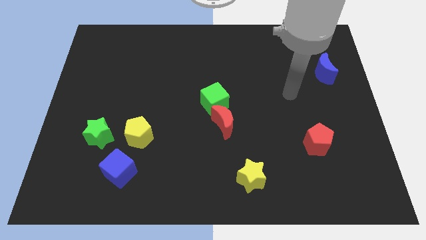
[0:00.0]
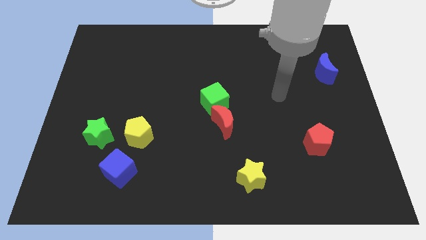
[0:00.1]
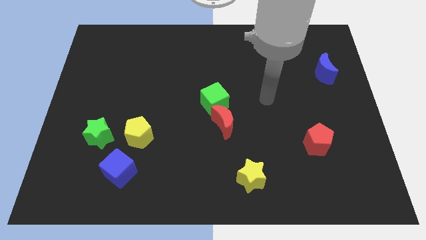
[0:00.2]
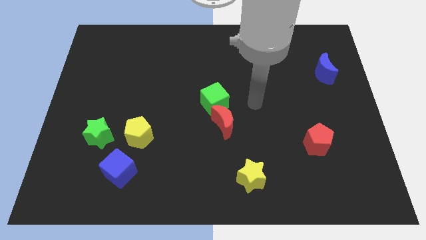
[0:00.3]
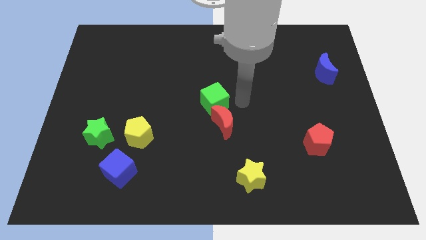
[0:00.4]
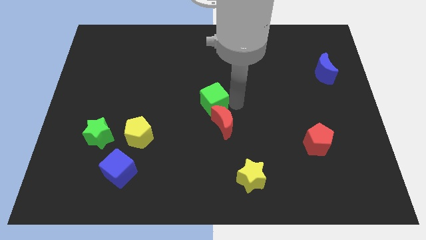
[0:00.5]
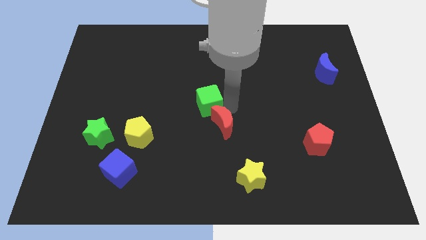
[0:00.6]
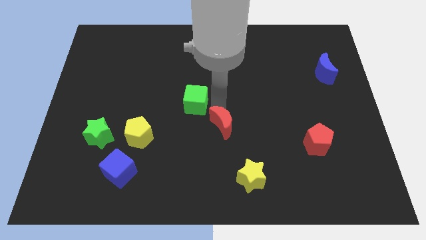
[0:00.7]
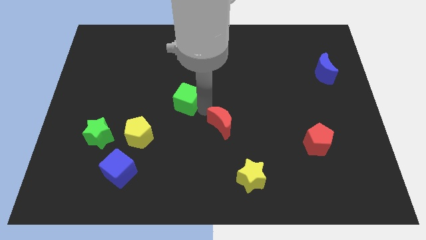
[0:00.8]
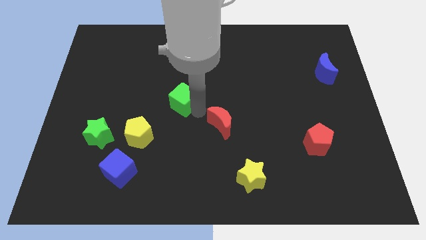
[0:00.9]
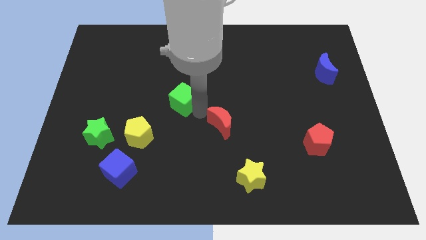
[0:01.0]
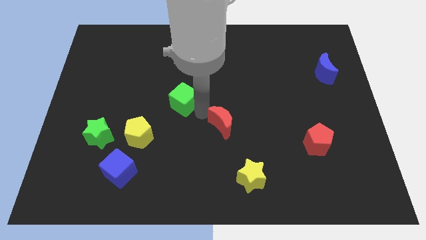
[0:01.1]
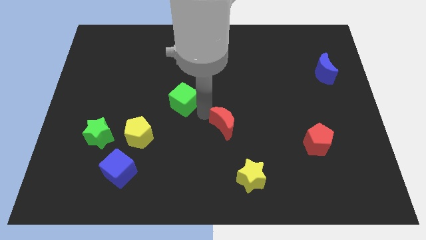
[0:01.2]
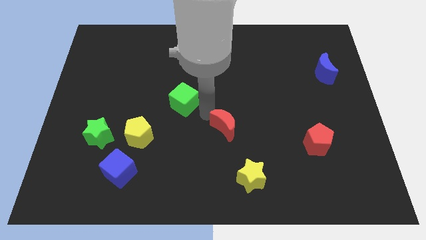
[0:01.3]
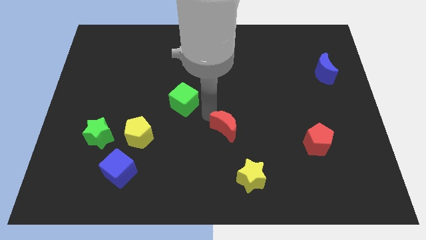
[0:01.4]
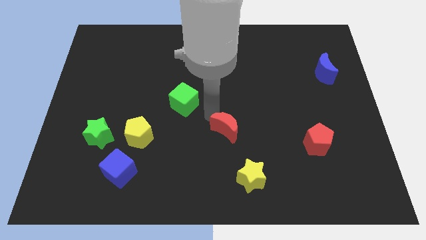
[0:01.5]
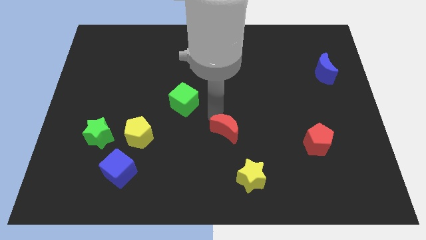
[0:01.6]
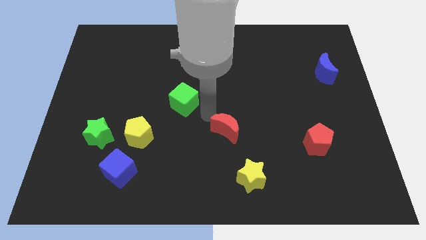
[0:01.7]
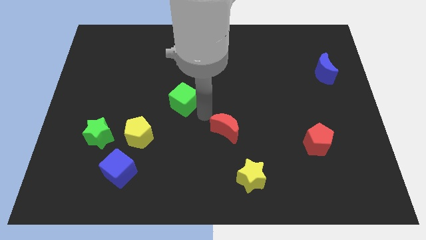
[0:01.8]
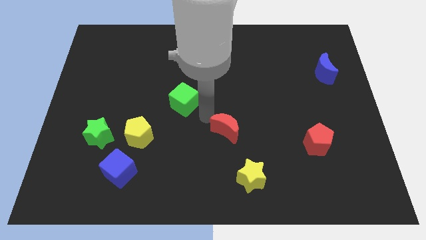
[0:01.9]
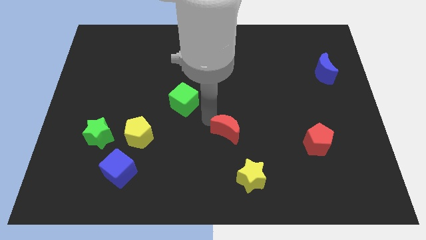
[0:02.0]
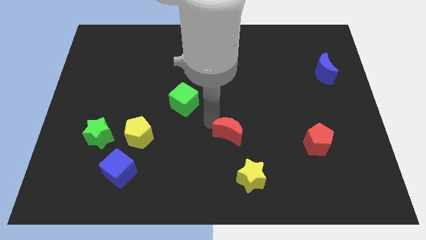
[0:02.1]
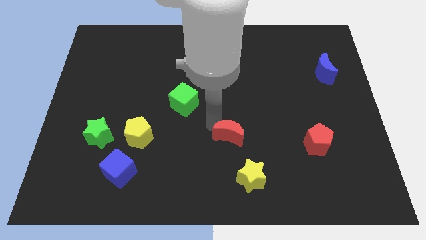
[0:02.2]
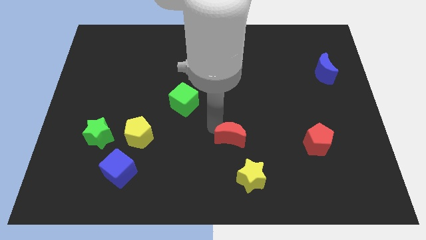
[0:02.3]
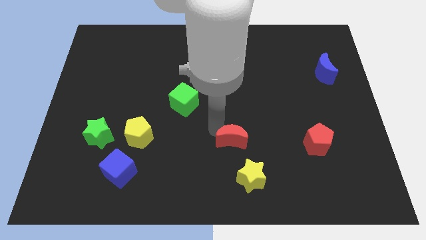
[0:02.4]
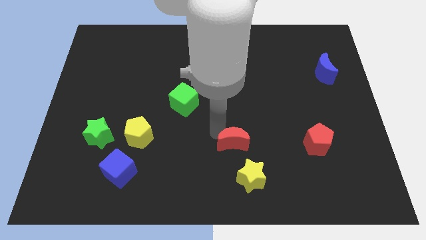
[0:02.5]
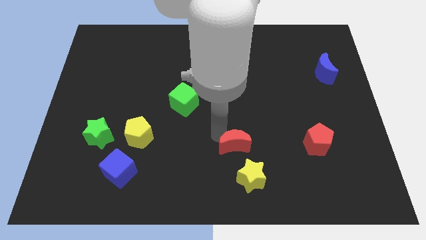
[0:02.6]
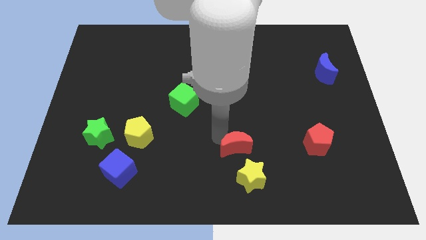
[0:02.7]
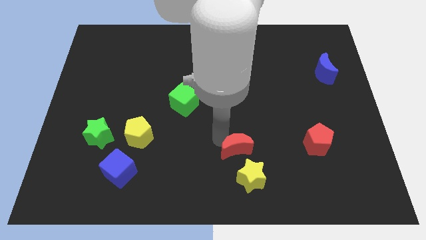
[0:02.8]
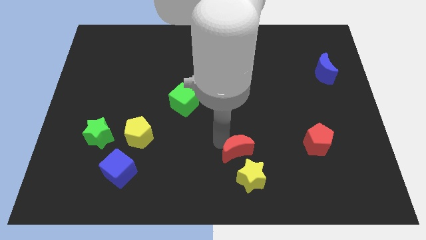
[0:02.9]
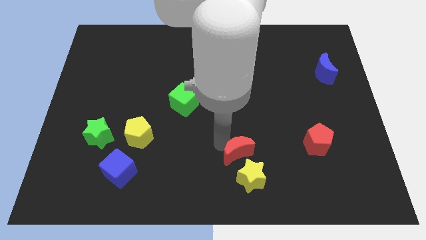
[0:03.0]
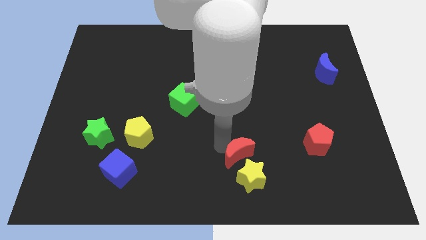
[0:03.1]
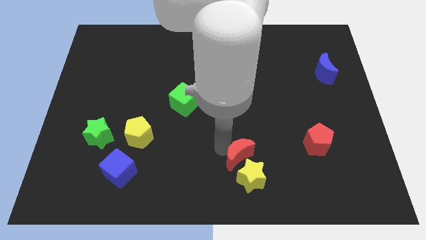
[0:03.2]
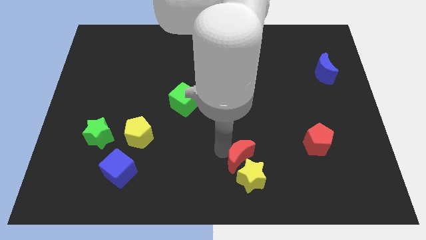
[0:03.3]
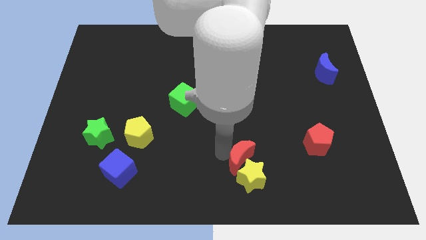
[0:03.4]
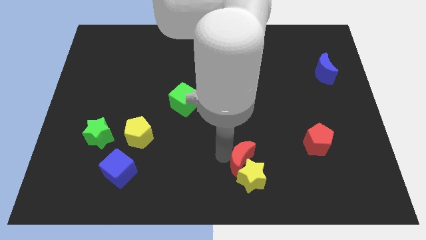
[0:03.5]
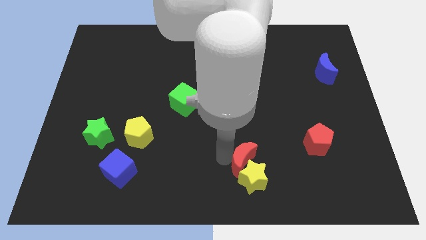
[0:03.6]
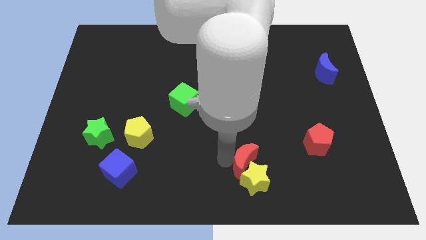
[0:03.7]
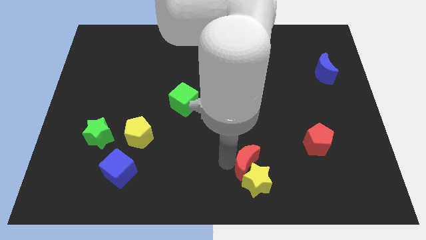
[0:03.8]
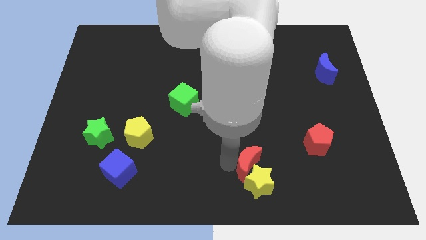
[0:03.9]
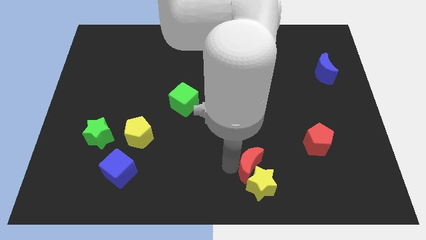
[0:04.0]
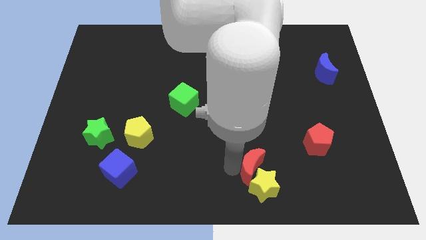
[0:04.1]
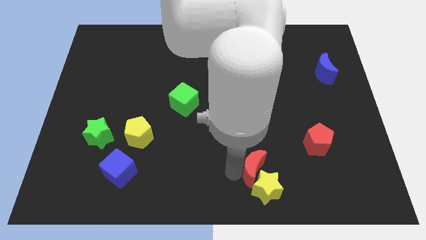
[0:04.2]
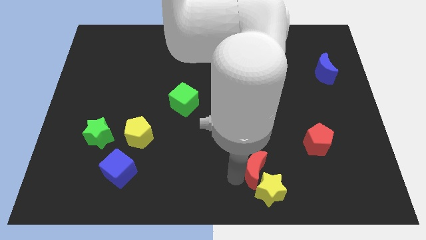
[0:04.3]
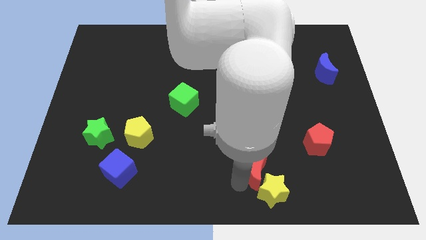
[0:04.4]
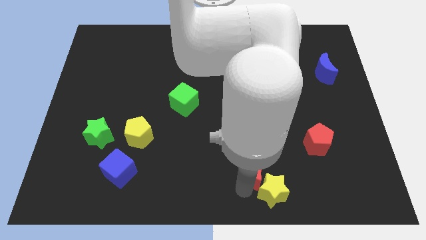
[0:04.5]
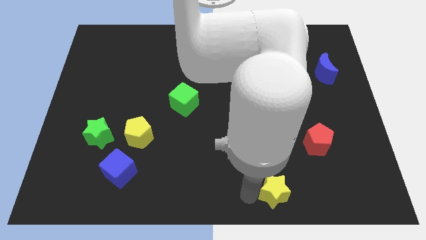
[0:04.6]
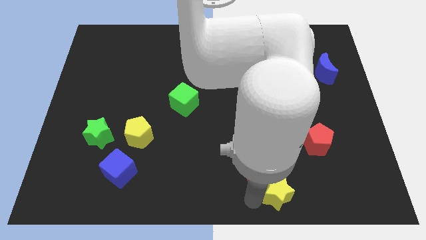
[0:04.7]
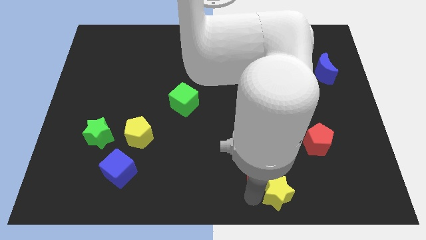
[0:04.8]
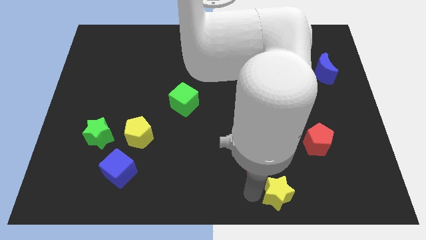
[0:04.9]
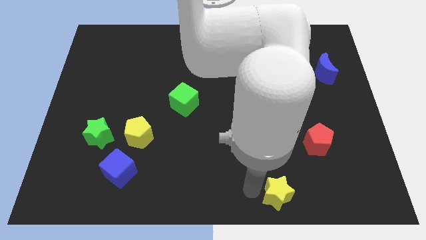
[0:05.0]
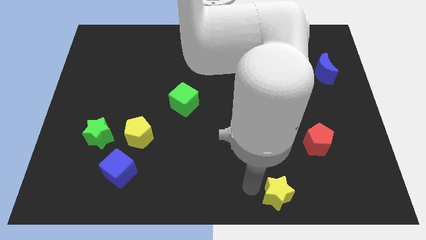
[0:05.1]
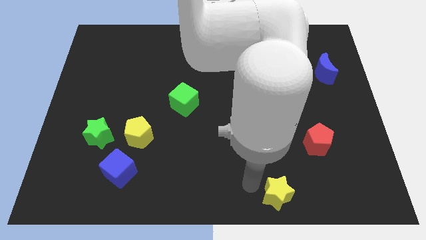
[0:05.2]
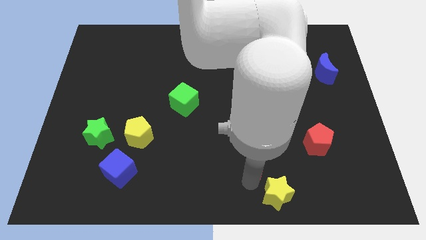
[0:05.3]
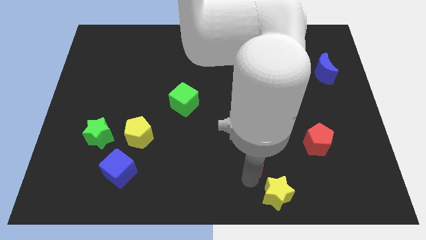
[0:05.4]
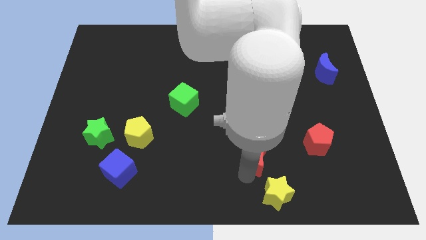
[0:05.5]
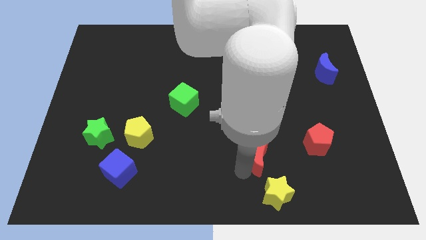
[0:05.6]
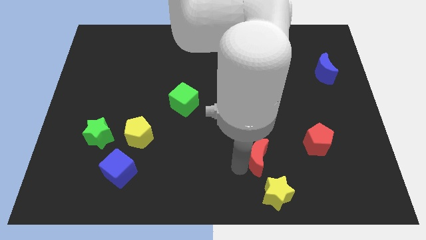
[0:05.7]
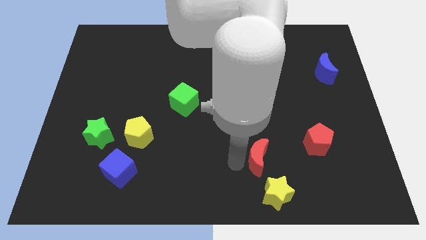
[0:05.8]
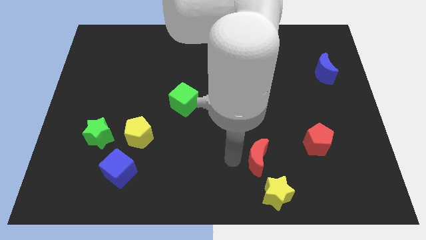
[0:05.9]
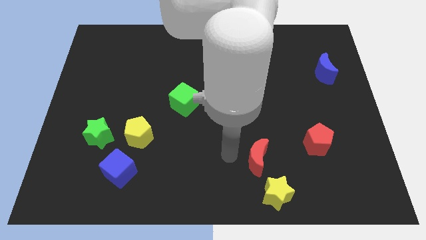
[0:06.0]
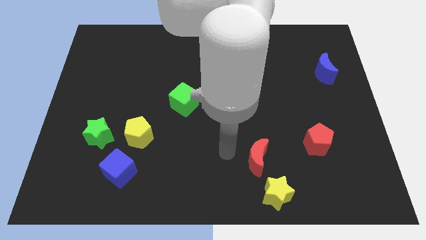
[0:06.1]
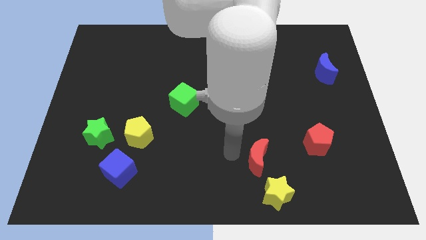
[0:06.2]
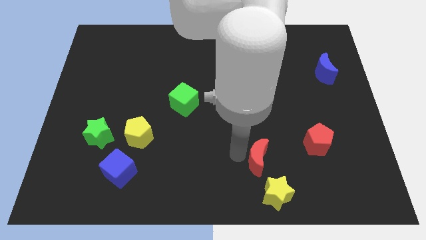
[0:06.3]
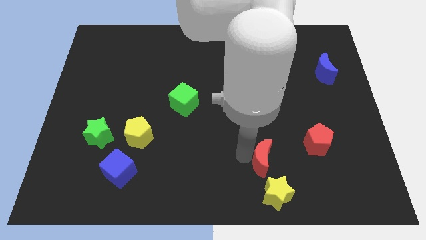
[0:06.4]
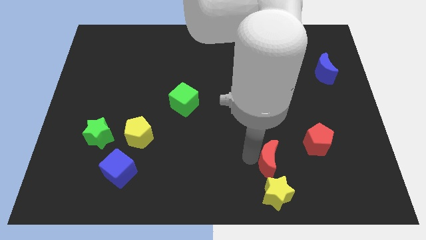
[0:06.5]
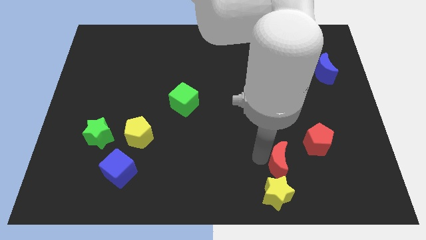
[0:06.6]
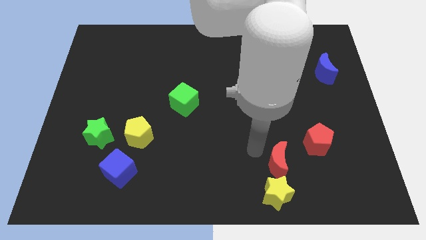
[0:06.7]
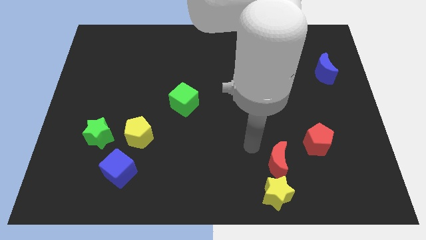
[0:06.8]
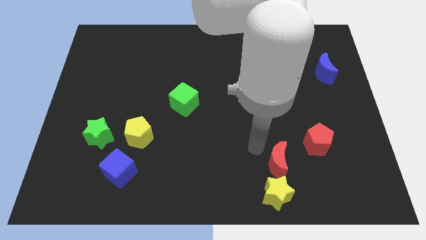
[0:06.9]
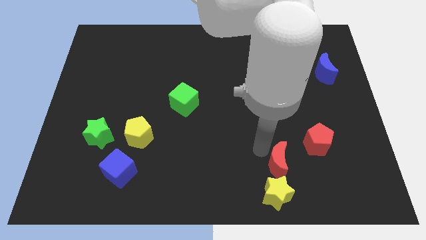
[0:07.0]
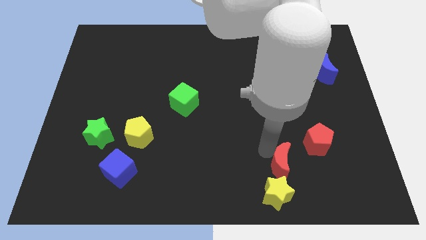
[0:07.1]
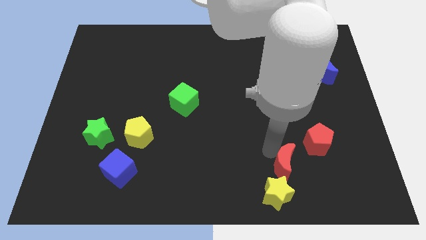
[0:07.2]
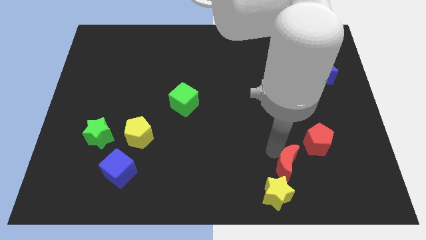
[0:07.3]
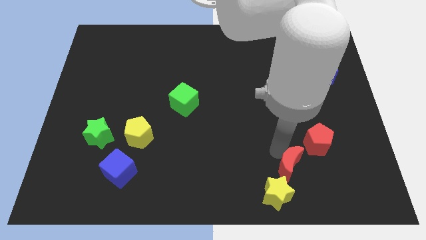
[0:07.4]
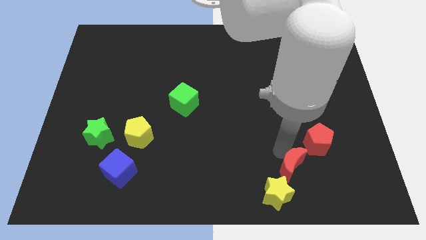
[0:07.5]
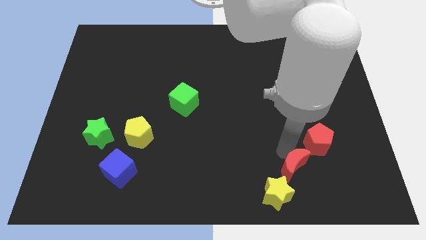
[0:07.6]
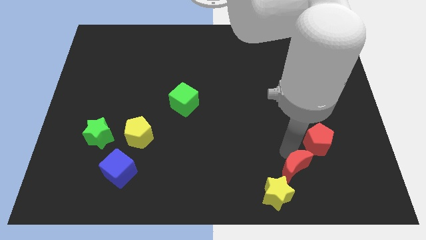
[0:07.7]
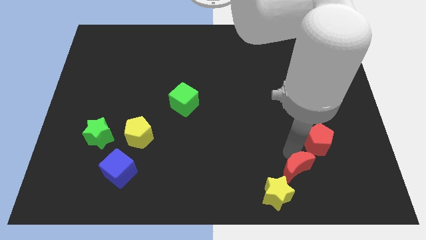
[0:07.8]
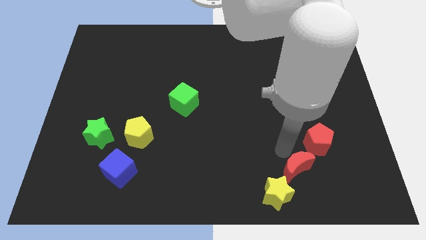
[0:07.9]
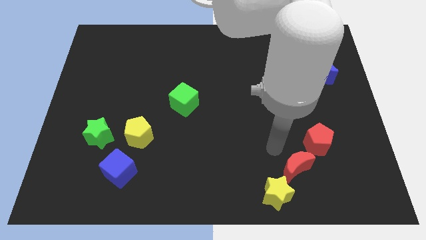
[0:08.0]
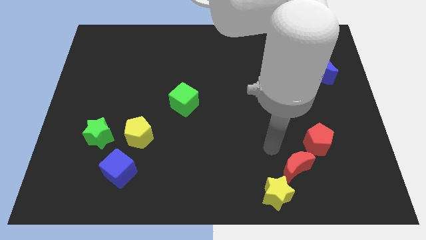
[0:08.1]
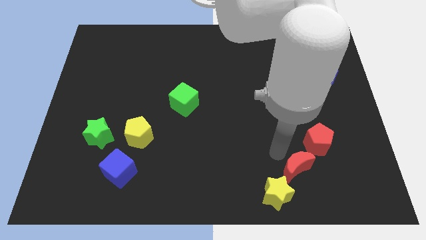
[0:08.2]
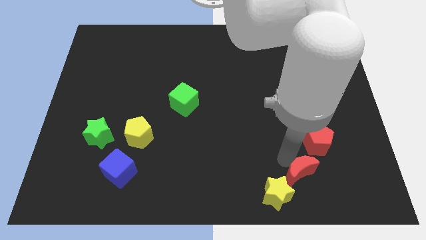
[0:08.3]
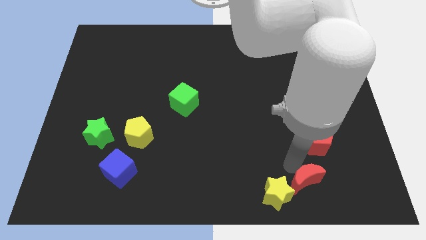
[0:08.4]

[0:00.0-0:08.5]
put the red moon to the right of the yellow star

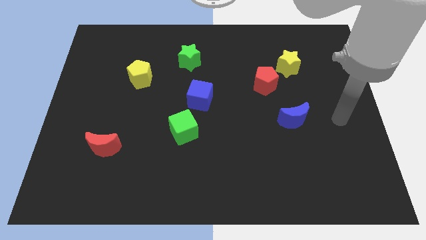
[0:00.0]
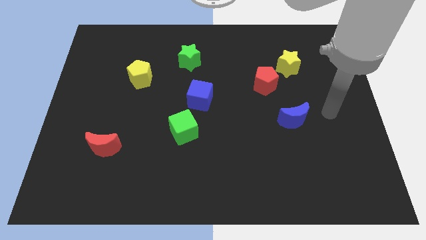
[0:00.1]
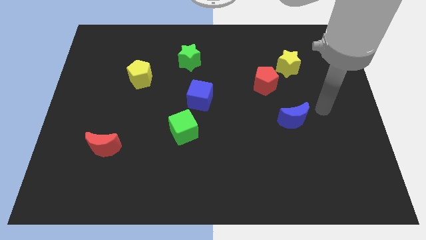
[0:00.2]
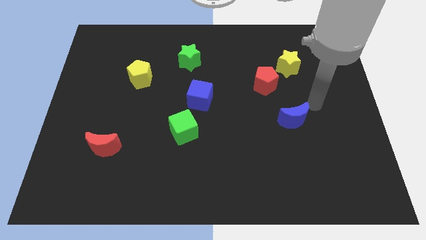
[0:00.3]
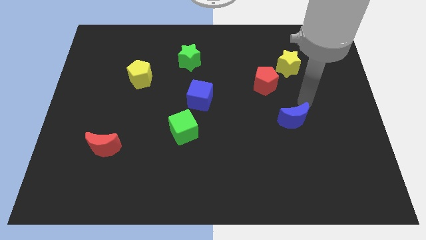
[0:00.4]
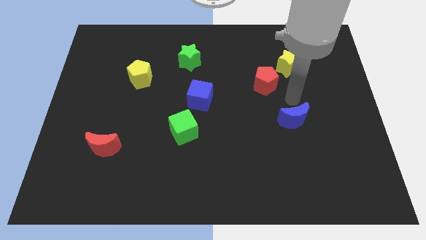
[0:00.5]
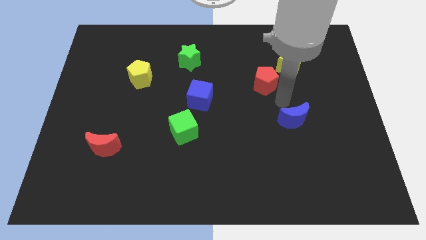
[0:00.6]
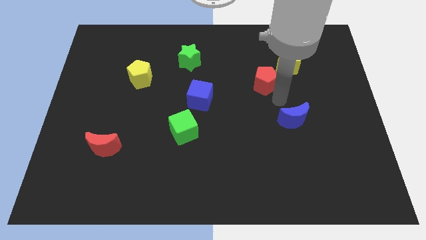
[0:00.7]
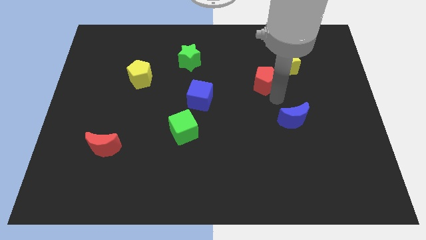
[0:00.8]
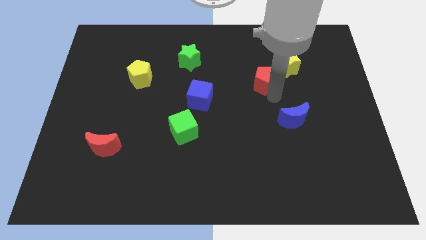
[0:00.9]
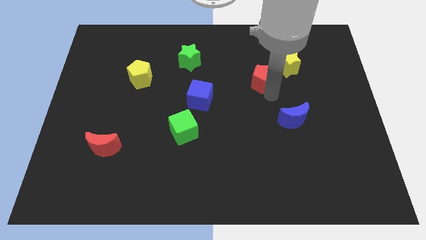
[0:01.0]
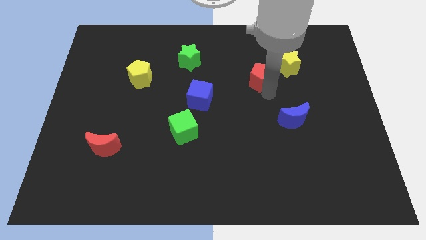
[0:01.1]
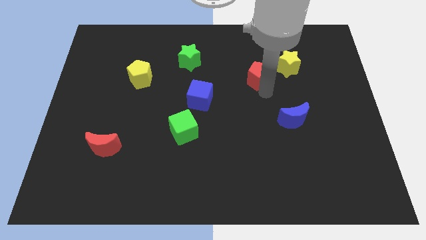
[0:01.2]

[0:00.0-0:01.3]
put the red pentagon to the left of the yellow star
